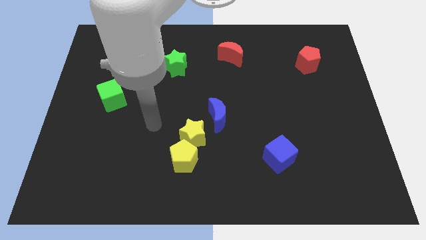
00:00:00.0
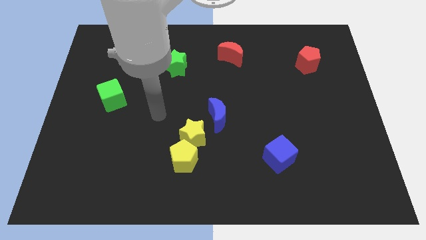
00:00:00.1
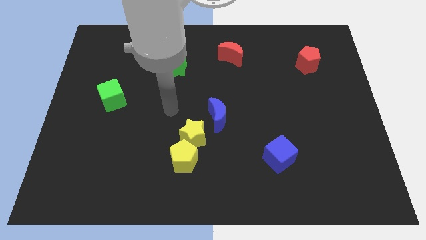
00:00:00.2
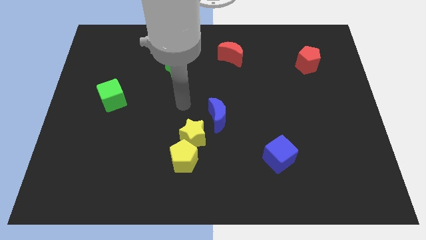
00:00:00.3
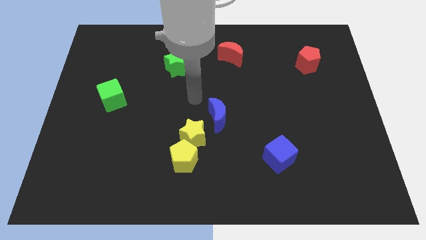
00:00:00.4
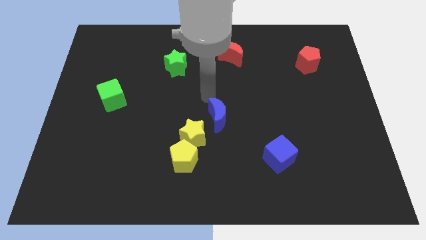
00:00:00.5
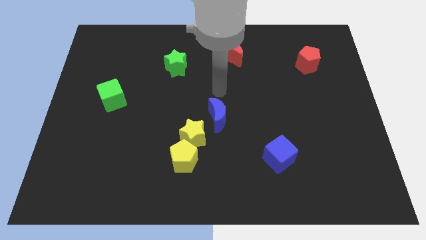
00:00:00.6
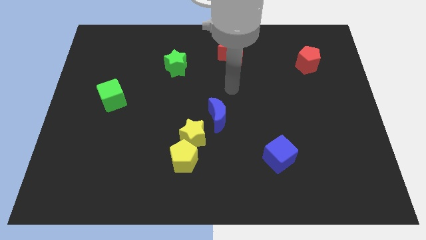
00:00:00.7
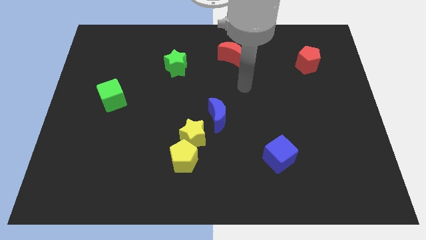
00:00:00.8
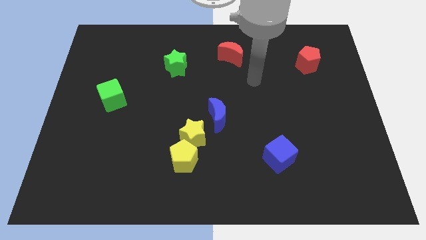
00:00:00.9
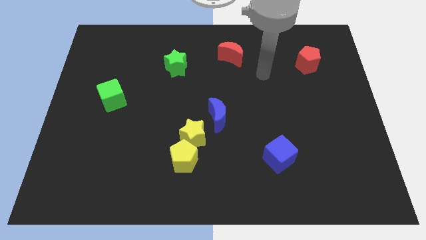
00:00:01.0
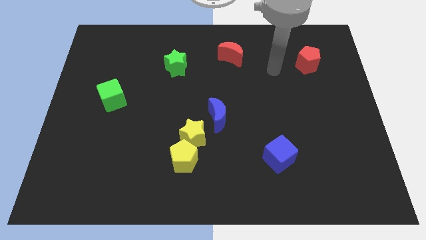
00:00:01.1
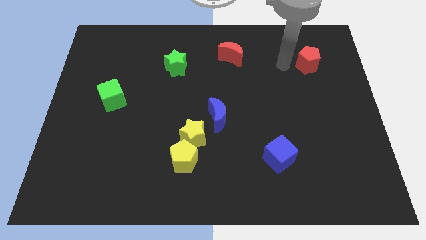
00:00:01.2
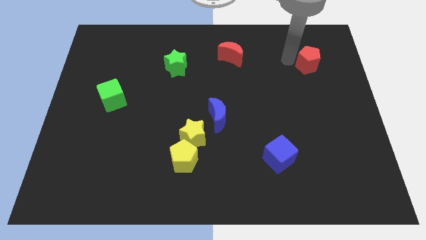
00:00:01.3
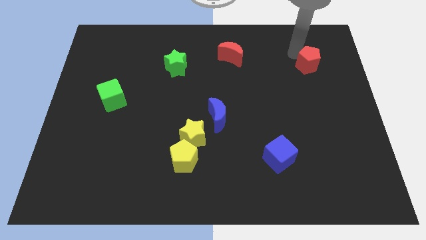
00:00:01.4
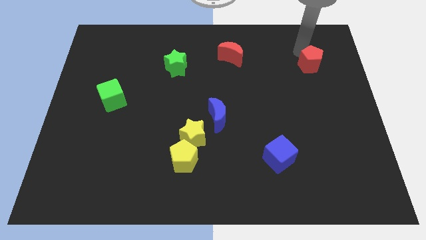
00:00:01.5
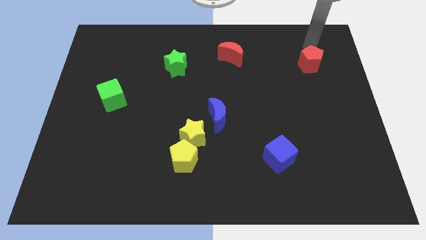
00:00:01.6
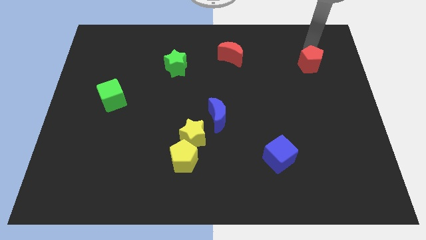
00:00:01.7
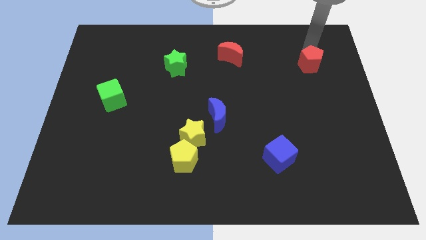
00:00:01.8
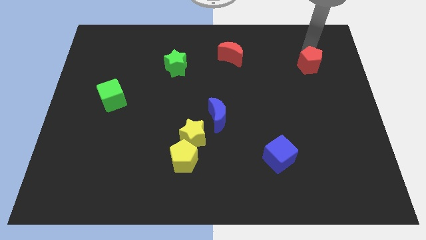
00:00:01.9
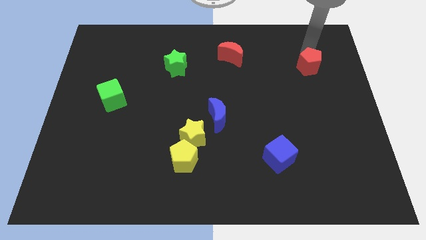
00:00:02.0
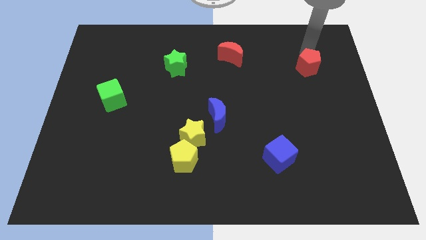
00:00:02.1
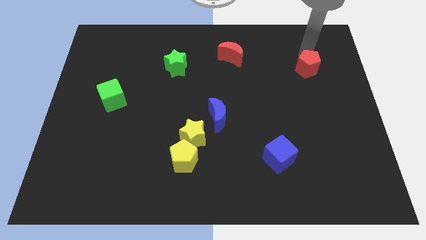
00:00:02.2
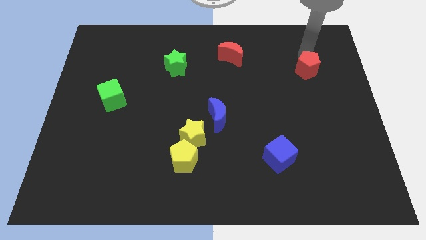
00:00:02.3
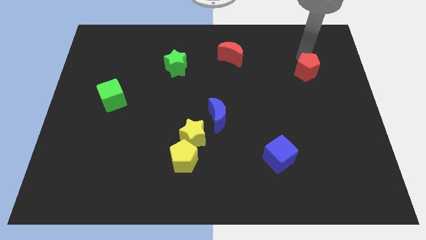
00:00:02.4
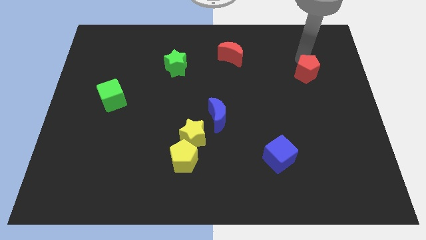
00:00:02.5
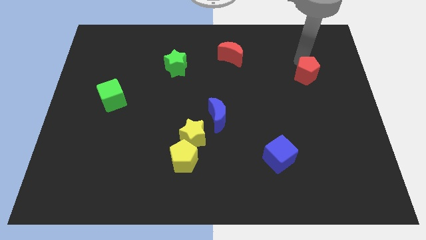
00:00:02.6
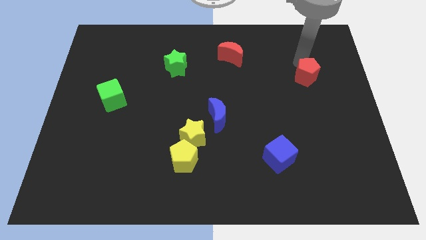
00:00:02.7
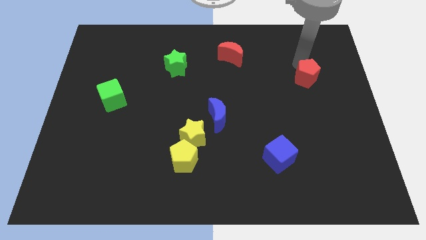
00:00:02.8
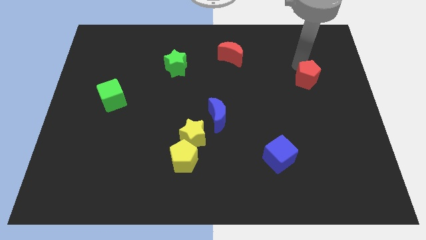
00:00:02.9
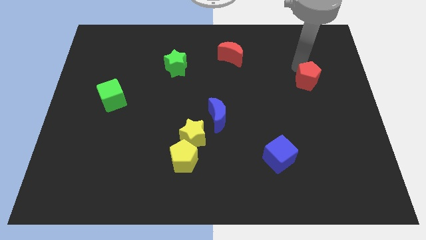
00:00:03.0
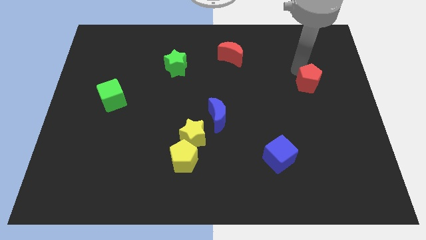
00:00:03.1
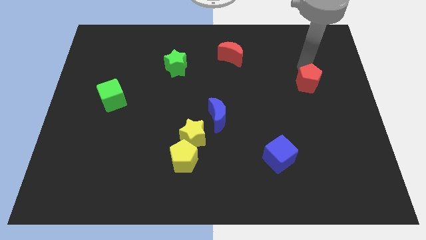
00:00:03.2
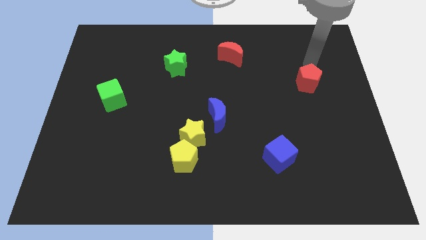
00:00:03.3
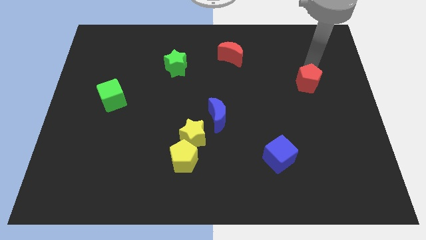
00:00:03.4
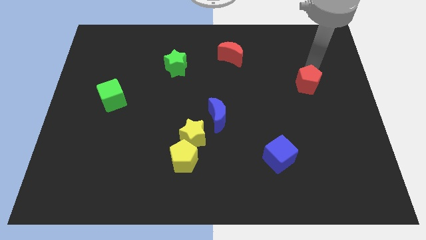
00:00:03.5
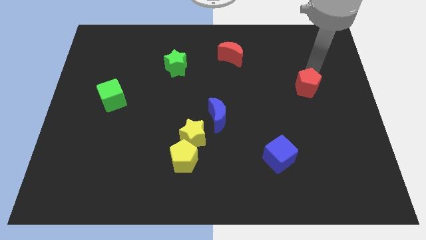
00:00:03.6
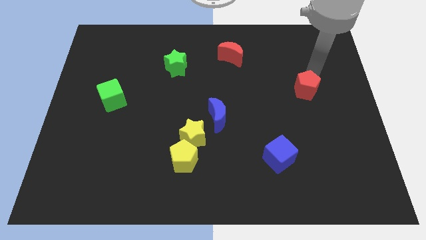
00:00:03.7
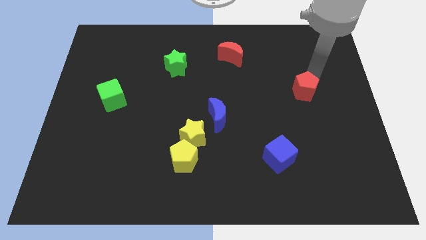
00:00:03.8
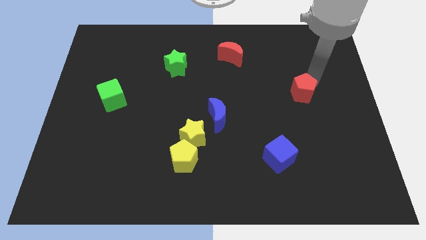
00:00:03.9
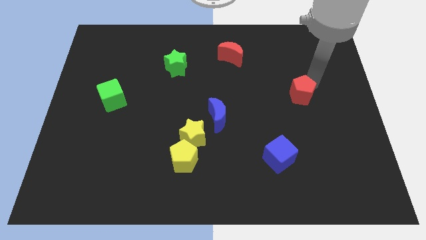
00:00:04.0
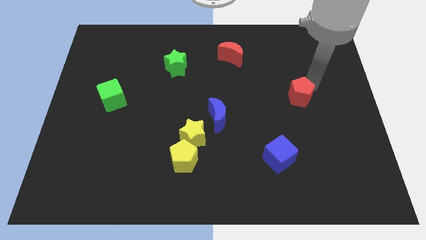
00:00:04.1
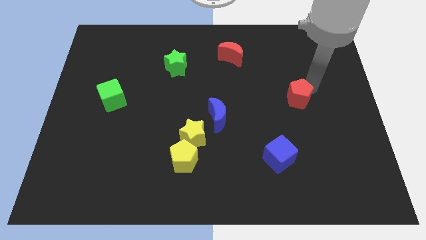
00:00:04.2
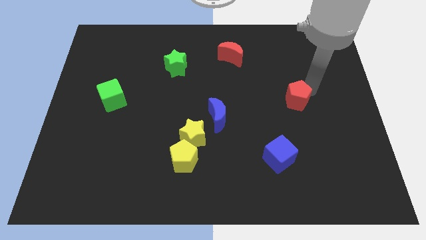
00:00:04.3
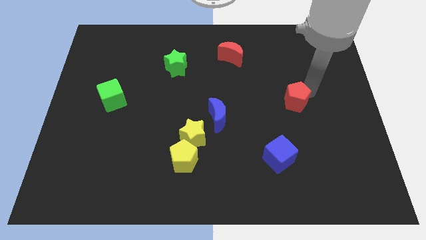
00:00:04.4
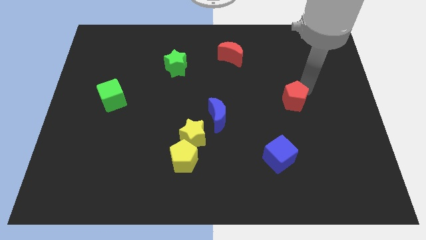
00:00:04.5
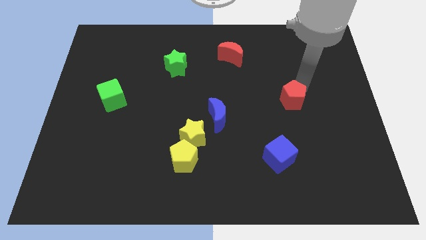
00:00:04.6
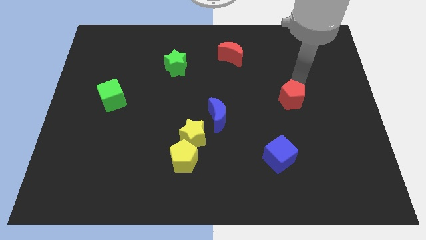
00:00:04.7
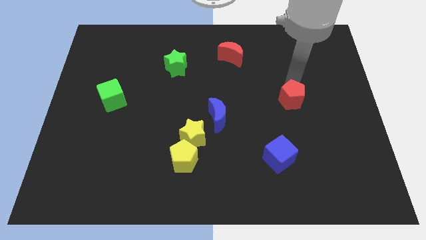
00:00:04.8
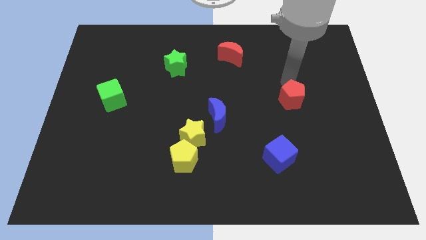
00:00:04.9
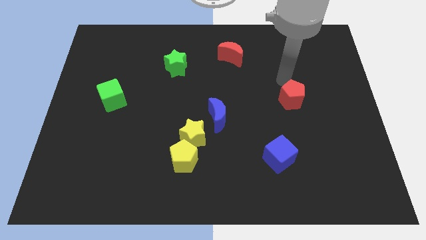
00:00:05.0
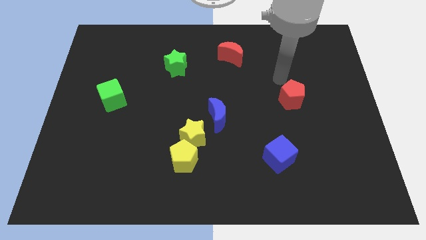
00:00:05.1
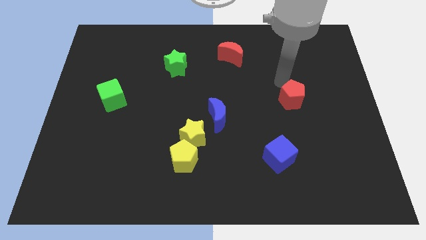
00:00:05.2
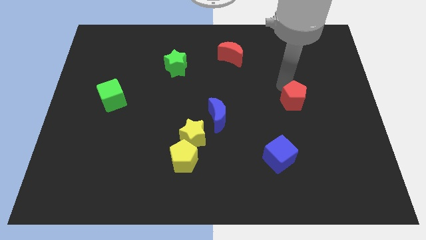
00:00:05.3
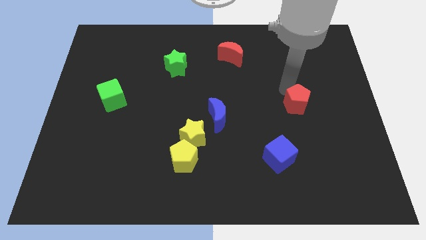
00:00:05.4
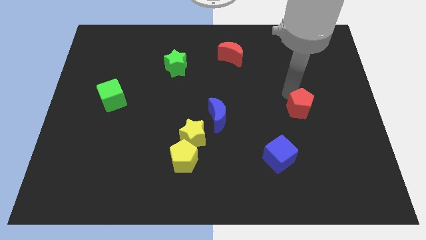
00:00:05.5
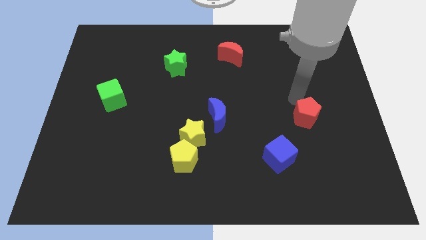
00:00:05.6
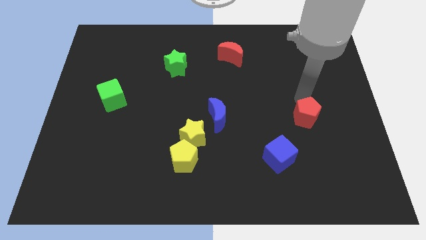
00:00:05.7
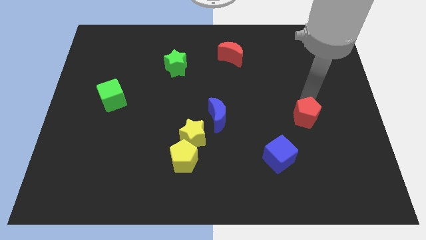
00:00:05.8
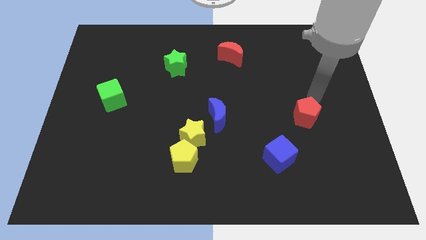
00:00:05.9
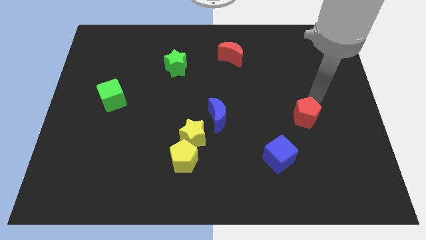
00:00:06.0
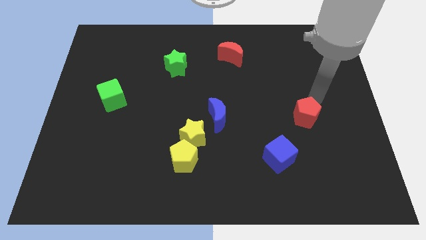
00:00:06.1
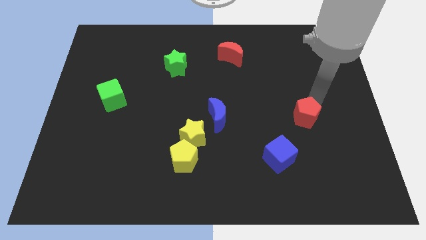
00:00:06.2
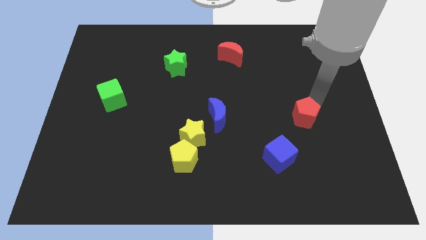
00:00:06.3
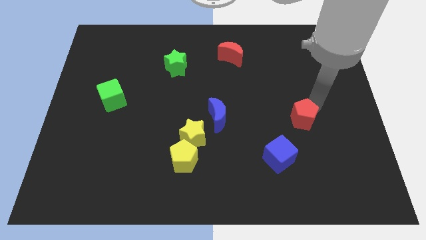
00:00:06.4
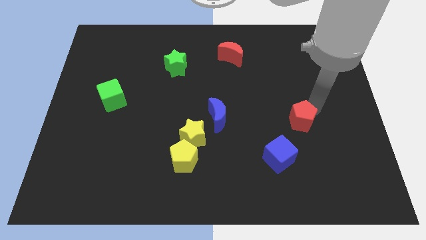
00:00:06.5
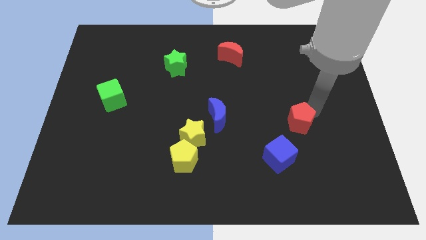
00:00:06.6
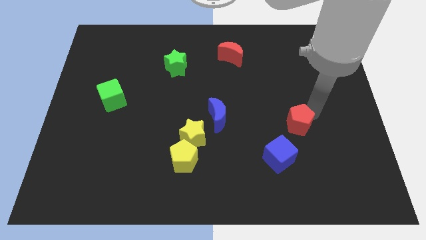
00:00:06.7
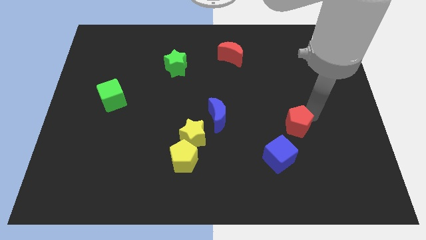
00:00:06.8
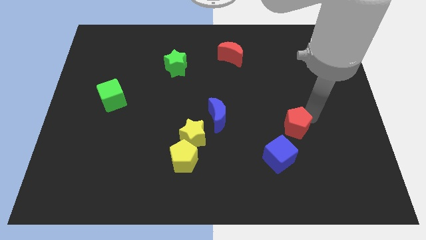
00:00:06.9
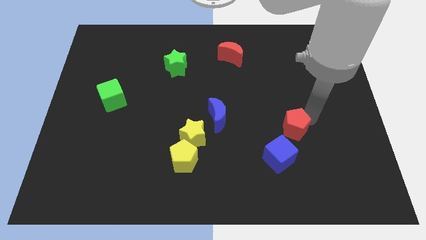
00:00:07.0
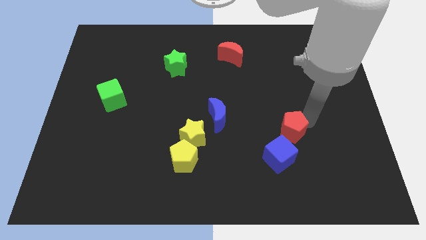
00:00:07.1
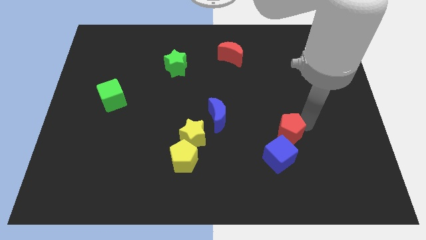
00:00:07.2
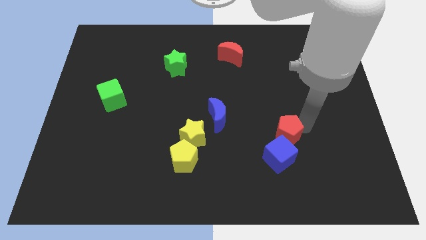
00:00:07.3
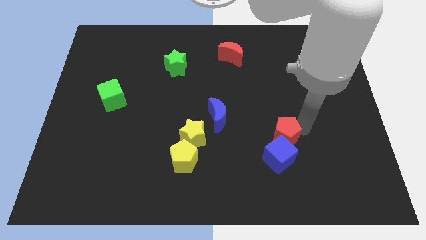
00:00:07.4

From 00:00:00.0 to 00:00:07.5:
slide the red pentagon to the blue cube
